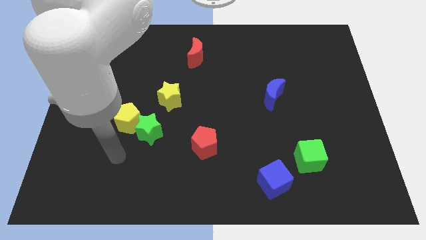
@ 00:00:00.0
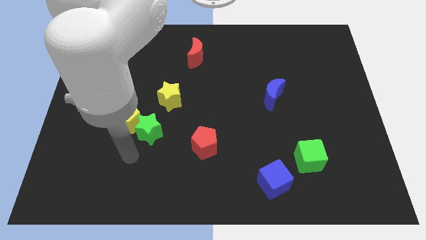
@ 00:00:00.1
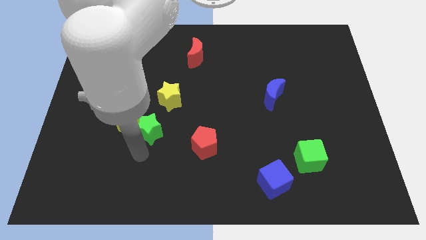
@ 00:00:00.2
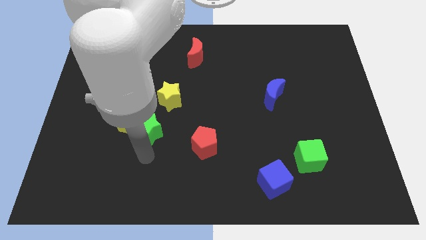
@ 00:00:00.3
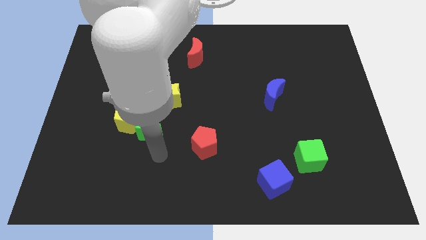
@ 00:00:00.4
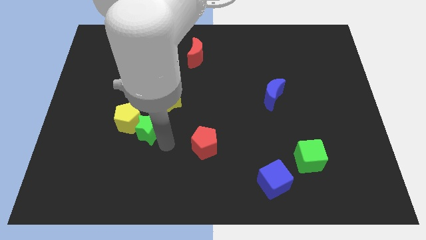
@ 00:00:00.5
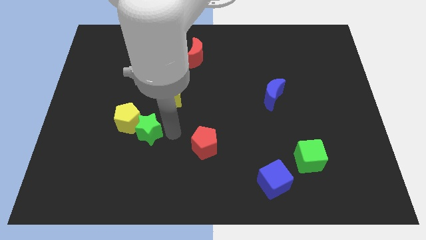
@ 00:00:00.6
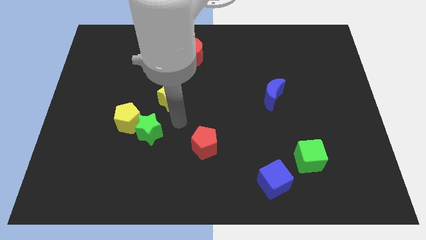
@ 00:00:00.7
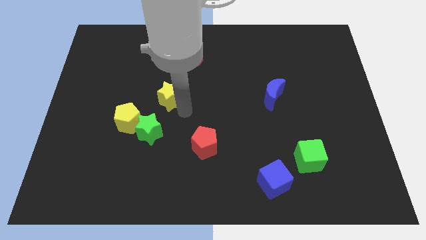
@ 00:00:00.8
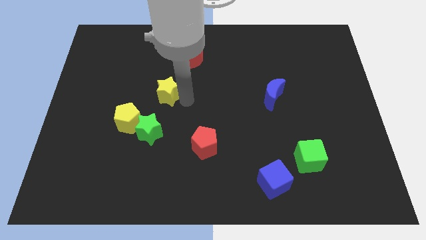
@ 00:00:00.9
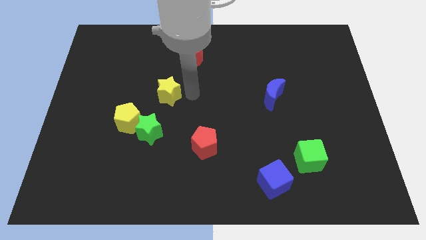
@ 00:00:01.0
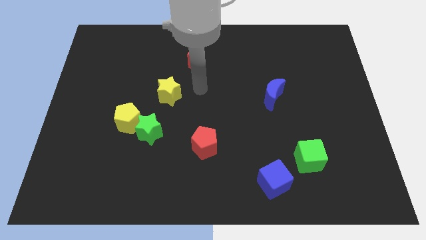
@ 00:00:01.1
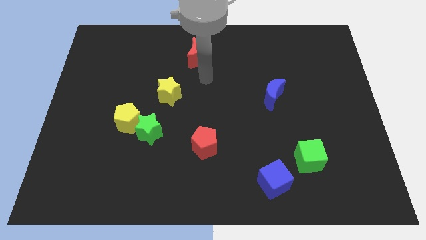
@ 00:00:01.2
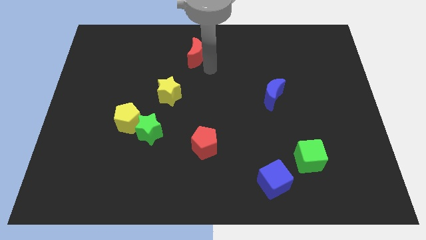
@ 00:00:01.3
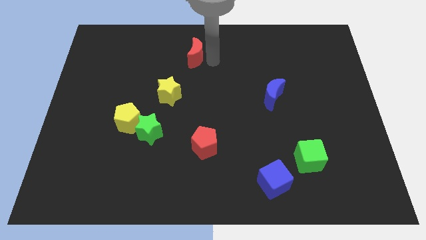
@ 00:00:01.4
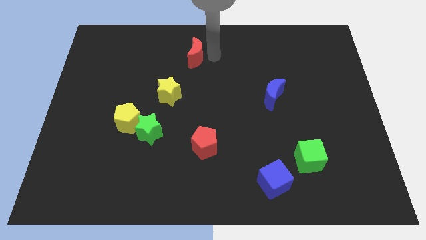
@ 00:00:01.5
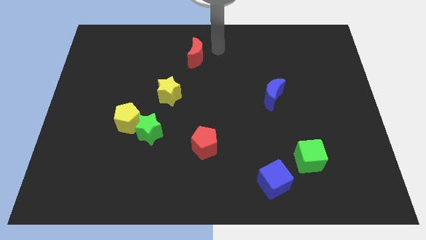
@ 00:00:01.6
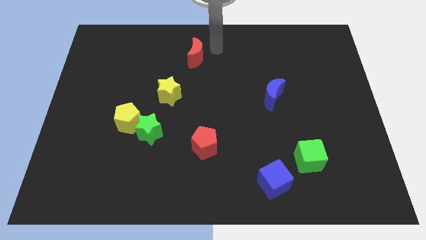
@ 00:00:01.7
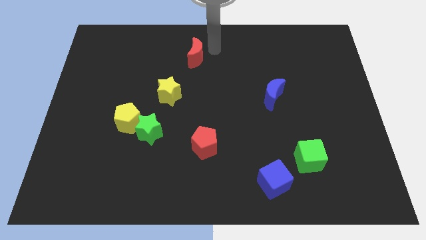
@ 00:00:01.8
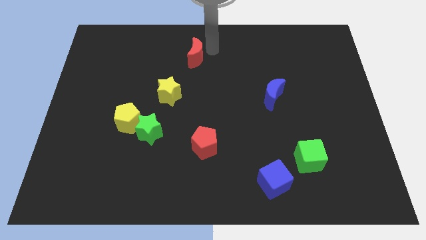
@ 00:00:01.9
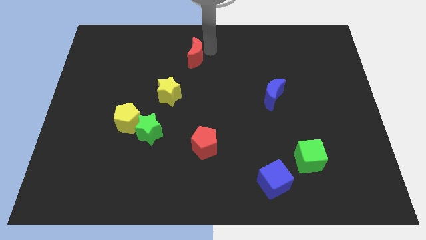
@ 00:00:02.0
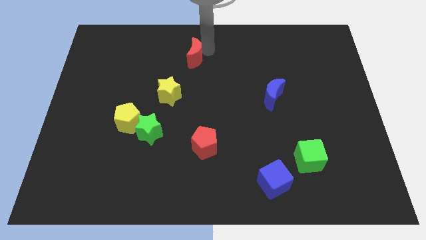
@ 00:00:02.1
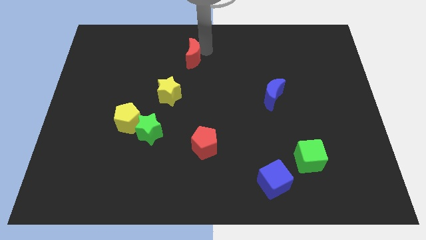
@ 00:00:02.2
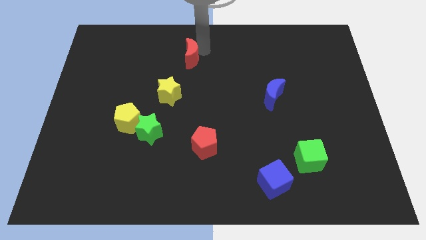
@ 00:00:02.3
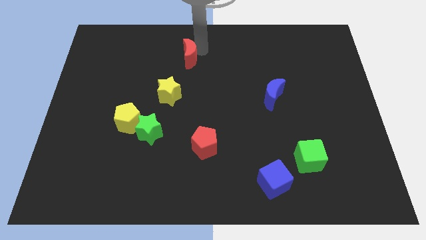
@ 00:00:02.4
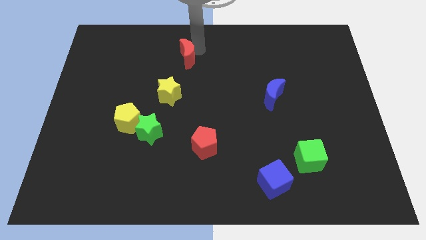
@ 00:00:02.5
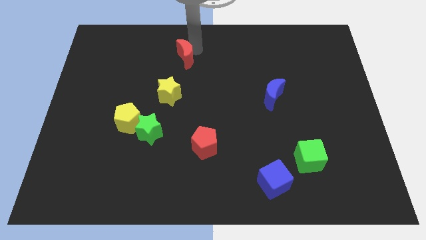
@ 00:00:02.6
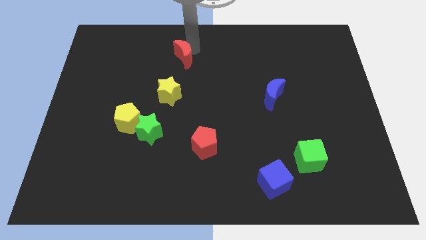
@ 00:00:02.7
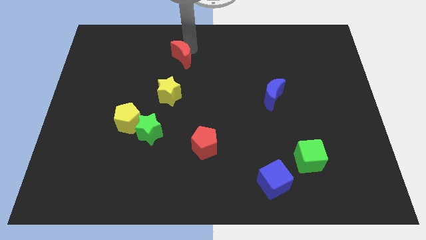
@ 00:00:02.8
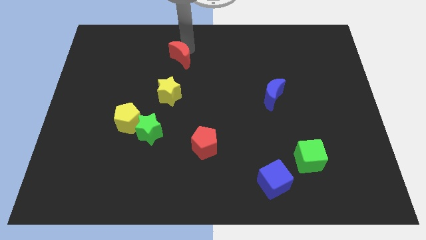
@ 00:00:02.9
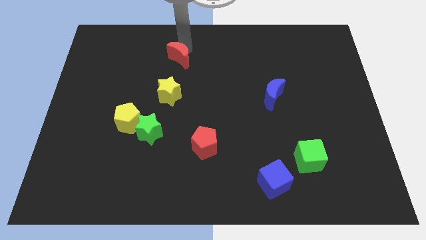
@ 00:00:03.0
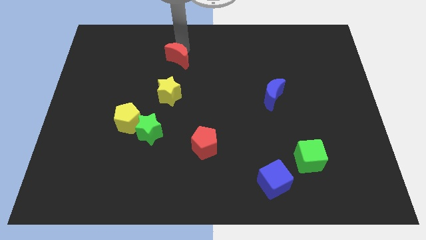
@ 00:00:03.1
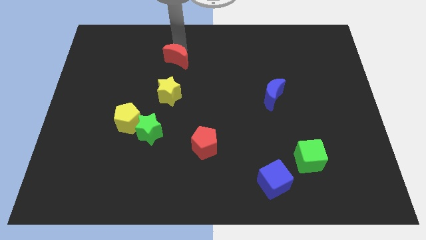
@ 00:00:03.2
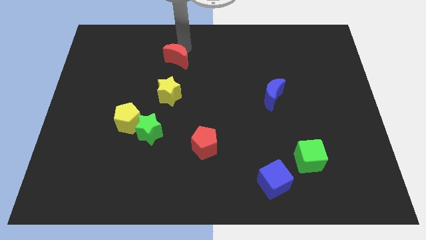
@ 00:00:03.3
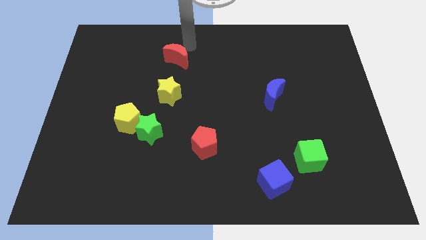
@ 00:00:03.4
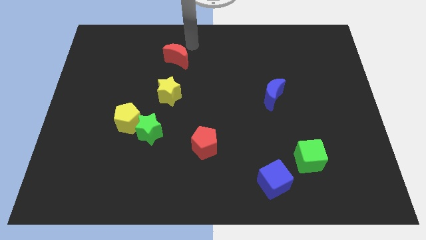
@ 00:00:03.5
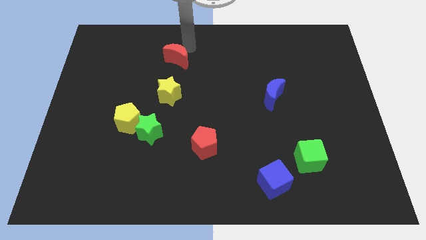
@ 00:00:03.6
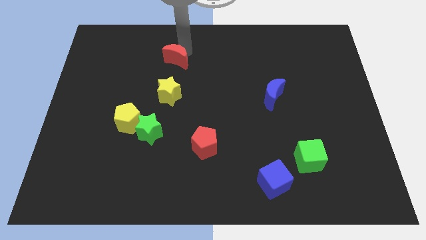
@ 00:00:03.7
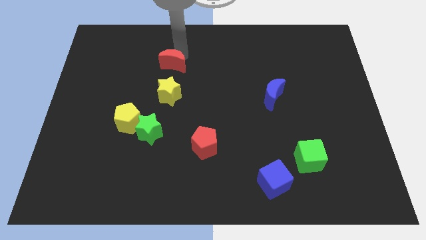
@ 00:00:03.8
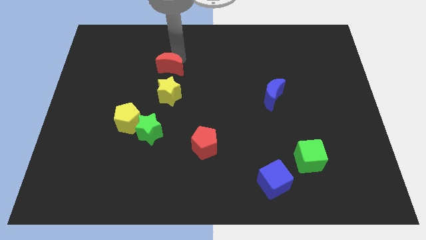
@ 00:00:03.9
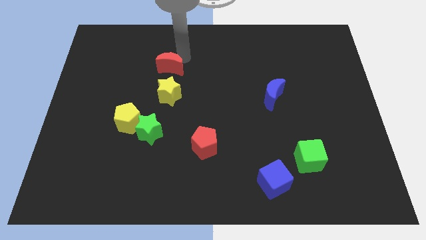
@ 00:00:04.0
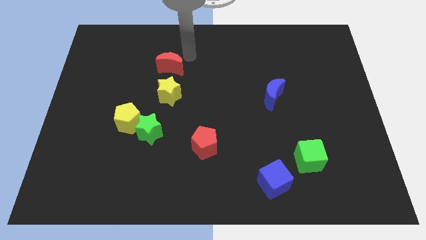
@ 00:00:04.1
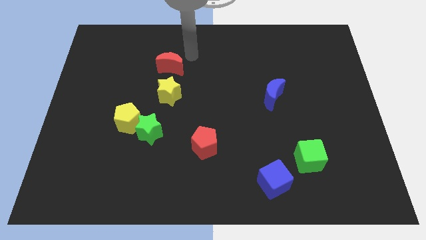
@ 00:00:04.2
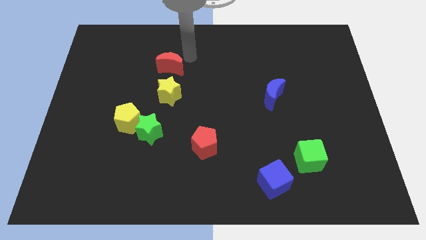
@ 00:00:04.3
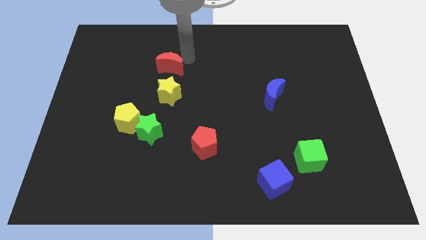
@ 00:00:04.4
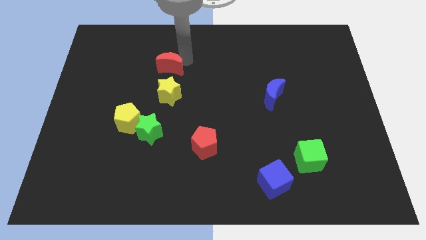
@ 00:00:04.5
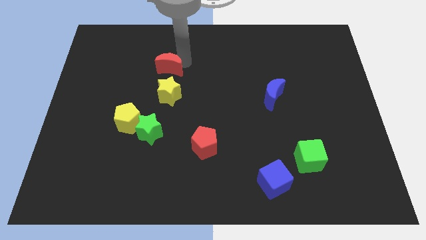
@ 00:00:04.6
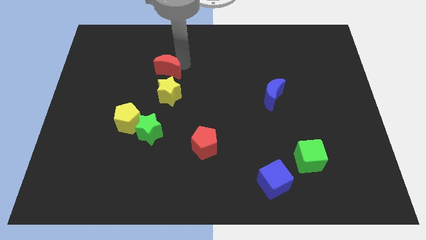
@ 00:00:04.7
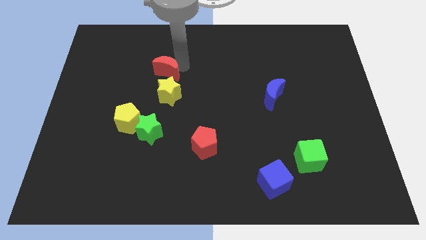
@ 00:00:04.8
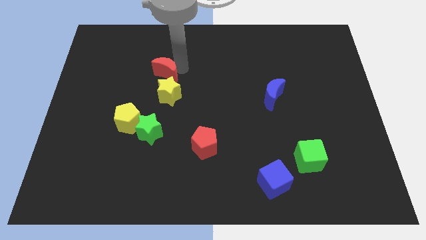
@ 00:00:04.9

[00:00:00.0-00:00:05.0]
put the red moon diagonally up and to the left of the yellow star

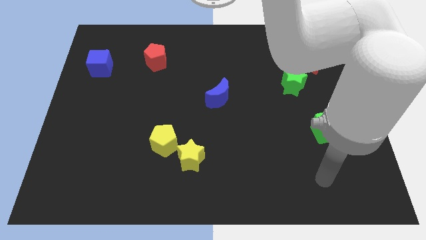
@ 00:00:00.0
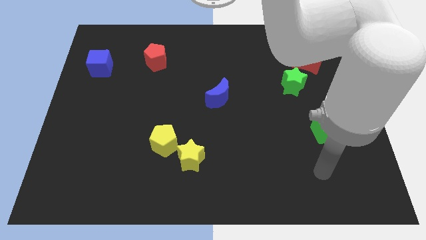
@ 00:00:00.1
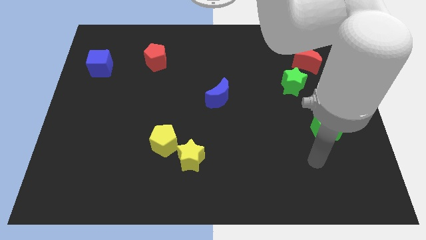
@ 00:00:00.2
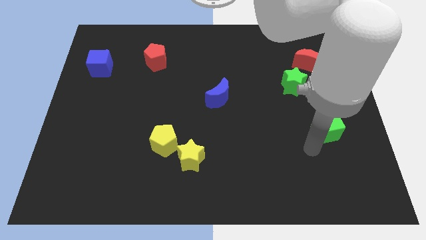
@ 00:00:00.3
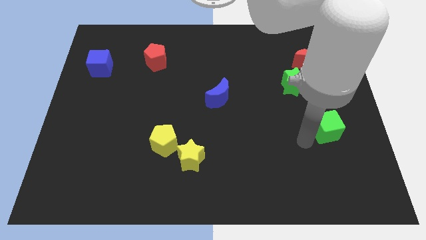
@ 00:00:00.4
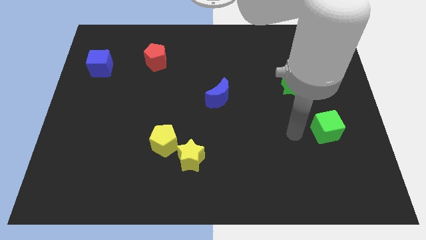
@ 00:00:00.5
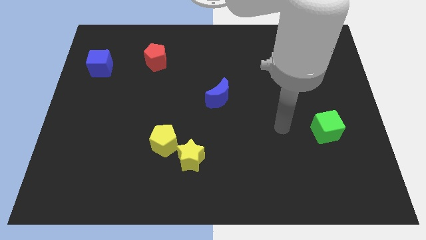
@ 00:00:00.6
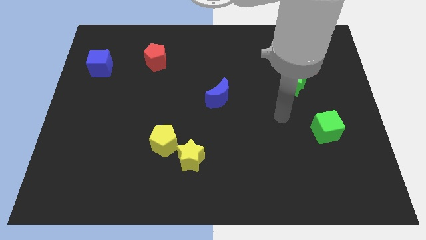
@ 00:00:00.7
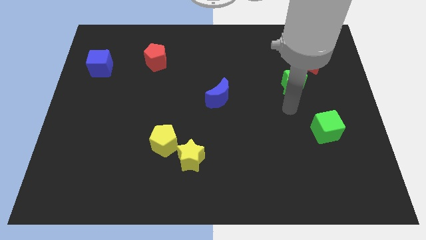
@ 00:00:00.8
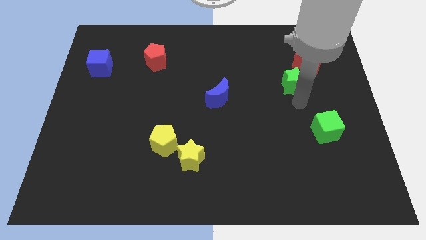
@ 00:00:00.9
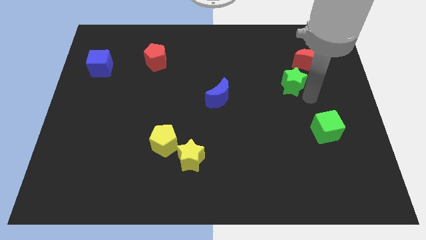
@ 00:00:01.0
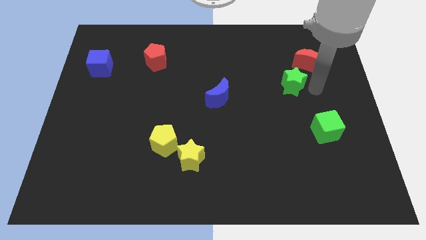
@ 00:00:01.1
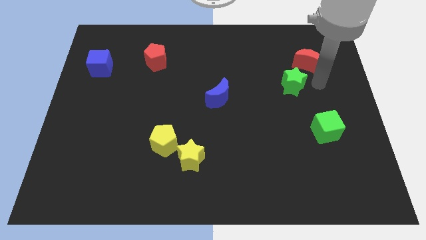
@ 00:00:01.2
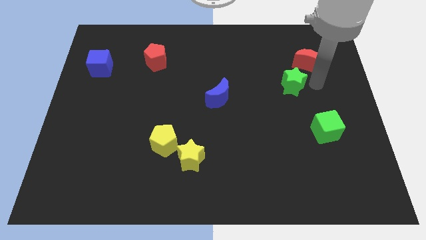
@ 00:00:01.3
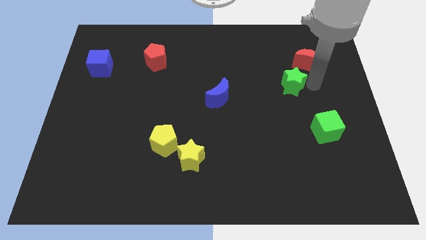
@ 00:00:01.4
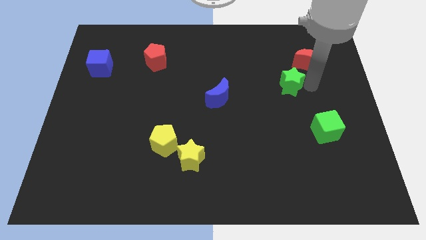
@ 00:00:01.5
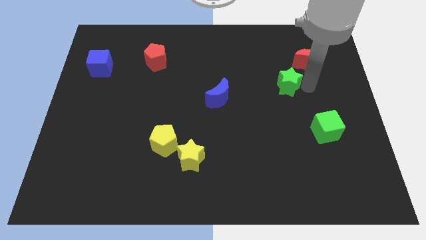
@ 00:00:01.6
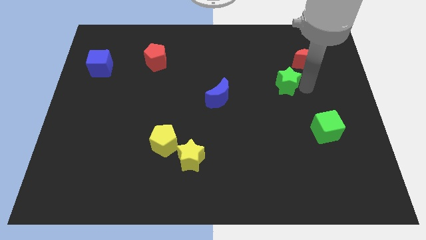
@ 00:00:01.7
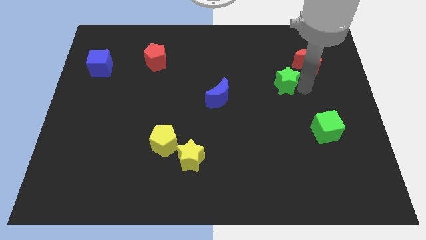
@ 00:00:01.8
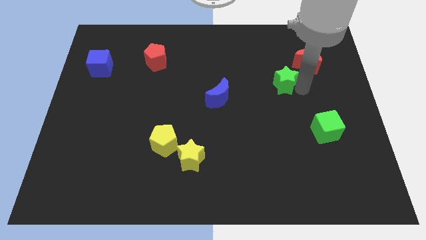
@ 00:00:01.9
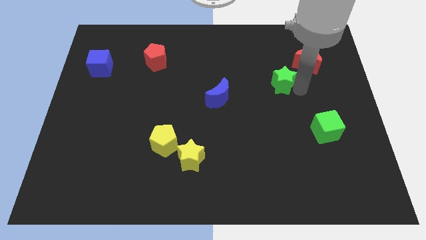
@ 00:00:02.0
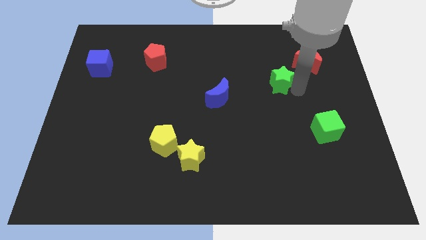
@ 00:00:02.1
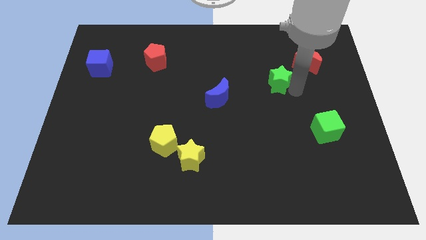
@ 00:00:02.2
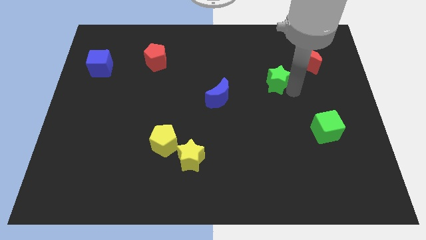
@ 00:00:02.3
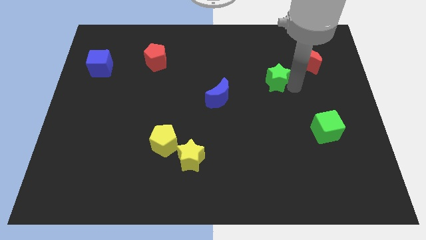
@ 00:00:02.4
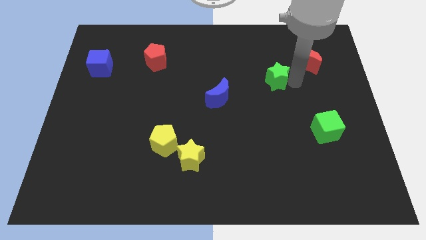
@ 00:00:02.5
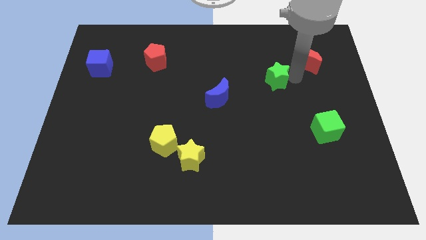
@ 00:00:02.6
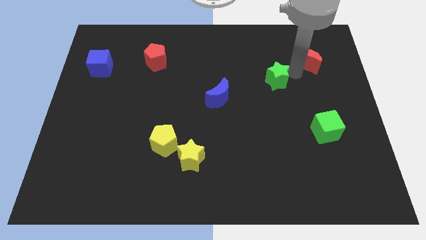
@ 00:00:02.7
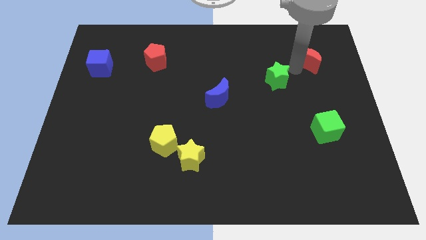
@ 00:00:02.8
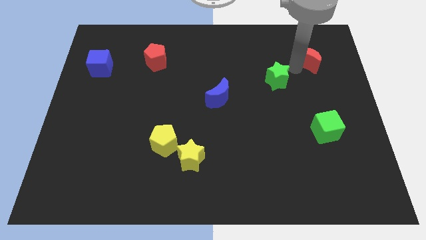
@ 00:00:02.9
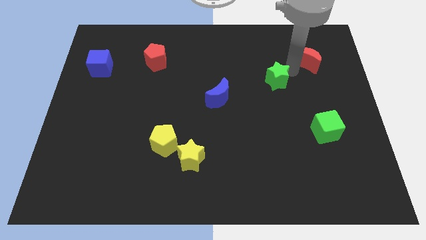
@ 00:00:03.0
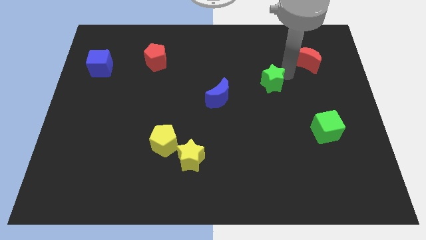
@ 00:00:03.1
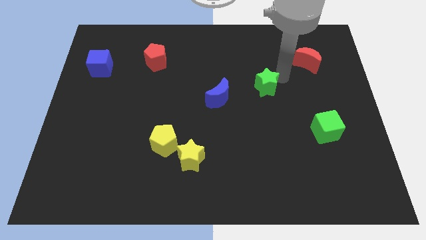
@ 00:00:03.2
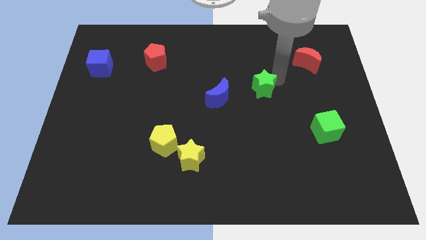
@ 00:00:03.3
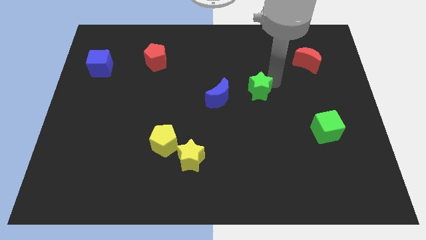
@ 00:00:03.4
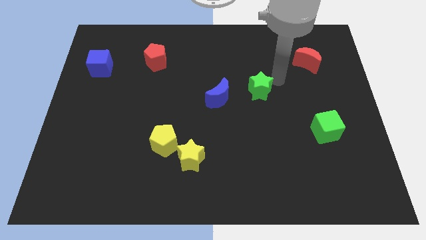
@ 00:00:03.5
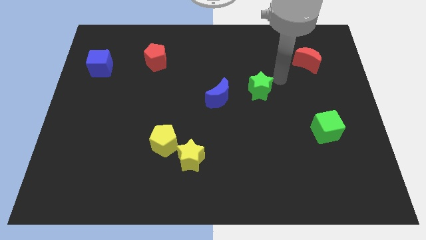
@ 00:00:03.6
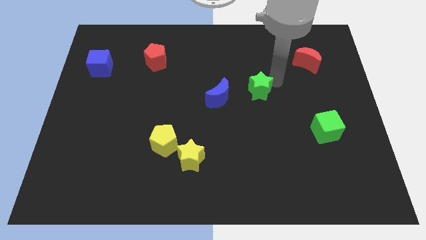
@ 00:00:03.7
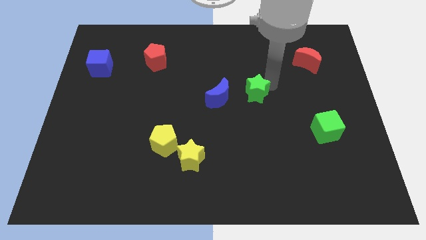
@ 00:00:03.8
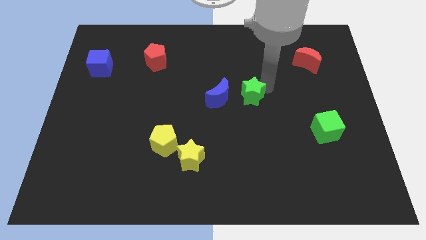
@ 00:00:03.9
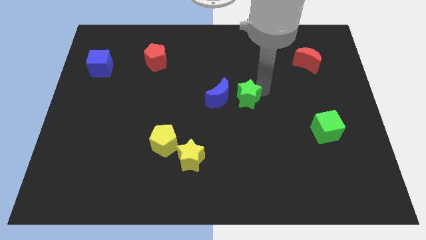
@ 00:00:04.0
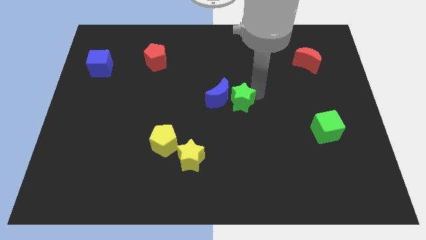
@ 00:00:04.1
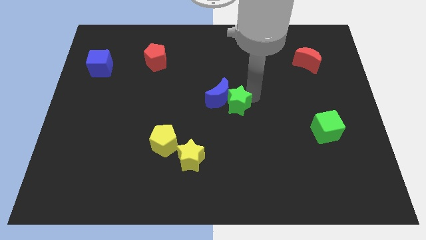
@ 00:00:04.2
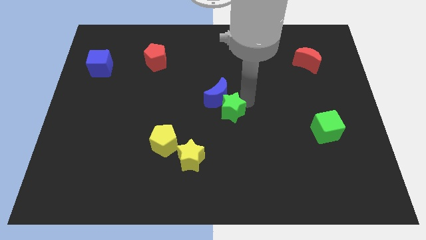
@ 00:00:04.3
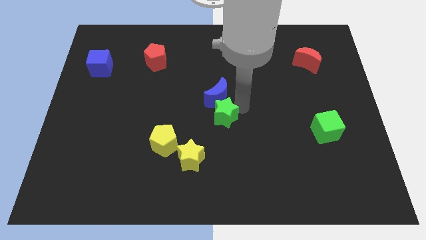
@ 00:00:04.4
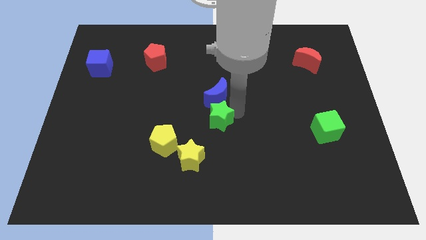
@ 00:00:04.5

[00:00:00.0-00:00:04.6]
slide the green star to the bottom left of the blue moon
